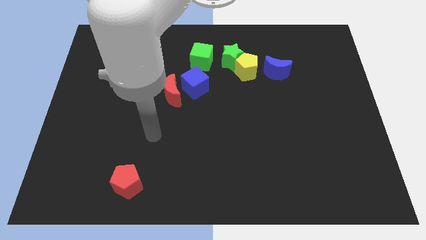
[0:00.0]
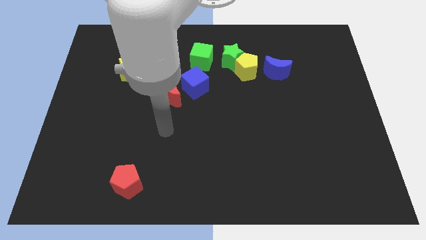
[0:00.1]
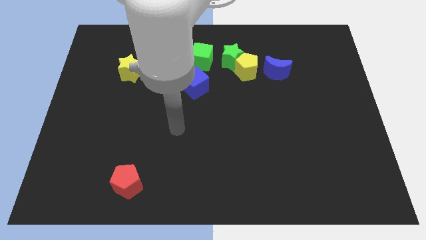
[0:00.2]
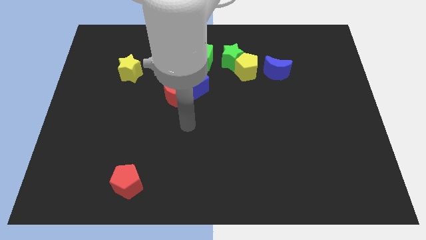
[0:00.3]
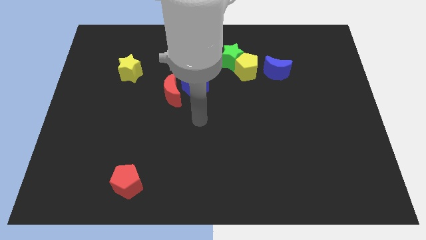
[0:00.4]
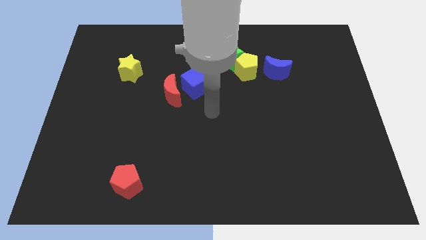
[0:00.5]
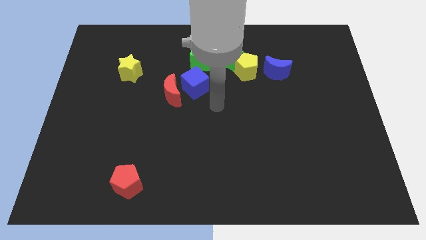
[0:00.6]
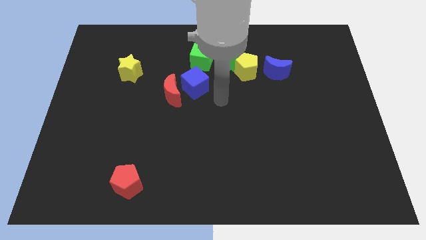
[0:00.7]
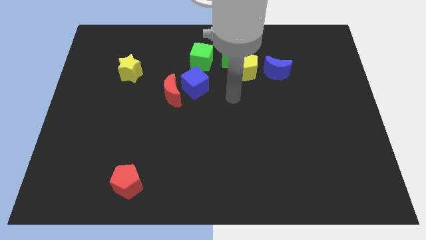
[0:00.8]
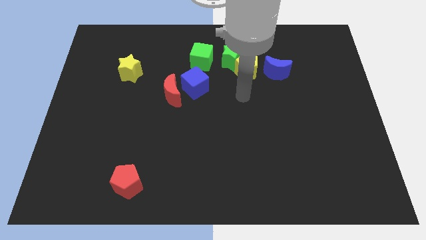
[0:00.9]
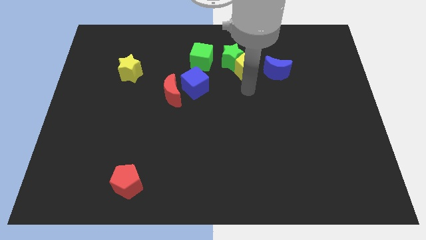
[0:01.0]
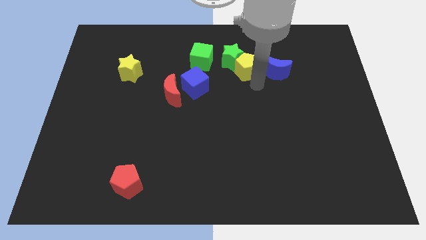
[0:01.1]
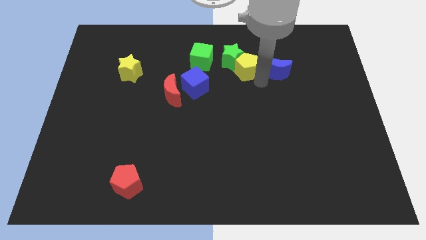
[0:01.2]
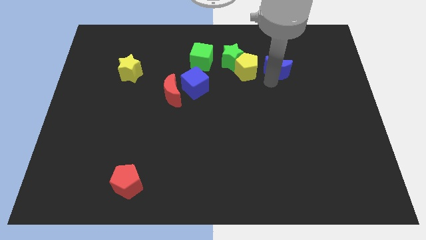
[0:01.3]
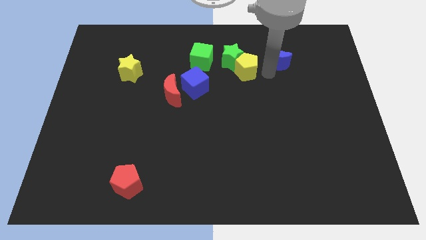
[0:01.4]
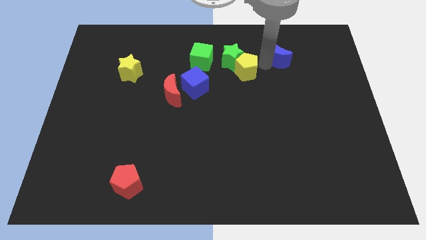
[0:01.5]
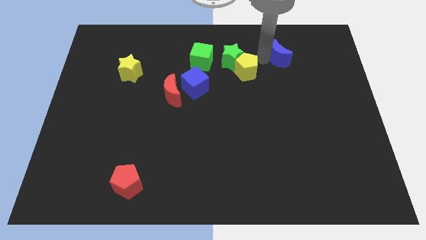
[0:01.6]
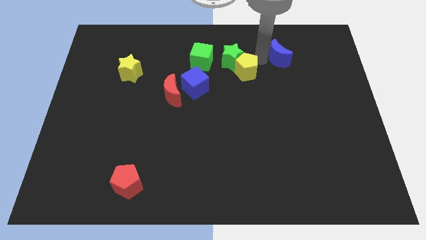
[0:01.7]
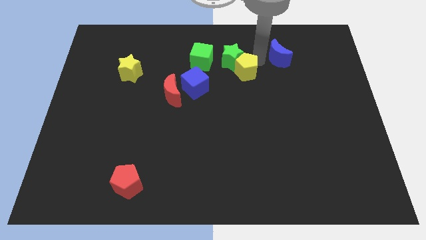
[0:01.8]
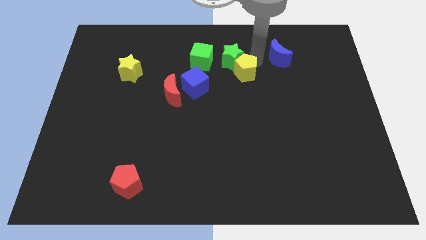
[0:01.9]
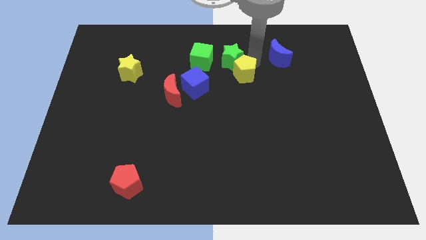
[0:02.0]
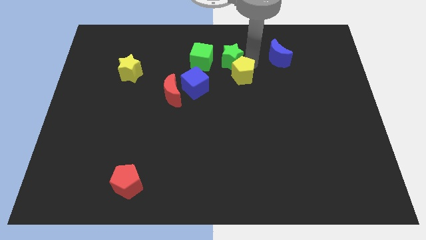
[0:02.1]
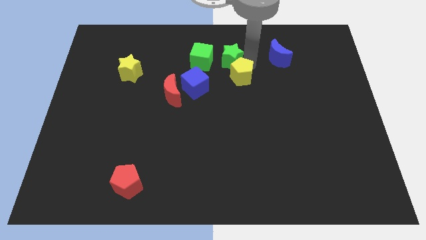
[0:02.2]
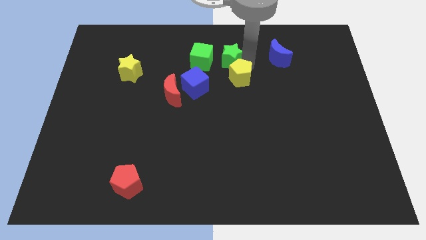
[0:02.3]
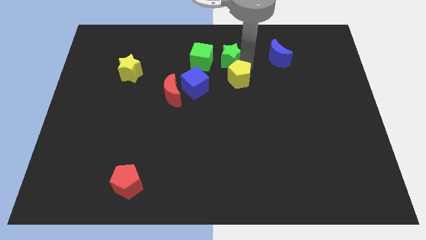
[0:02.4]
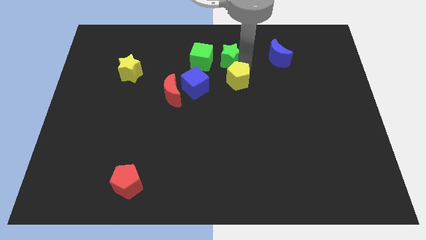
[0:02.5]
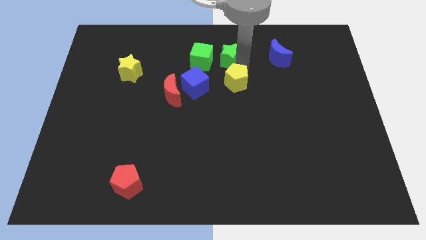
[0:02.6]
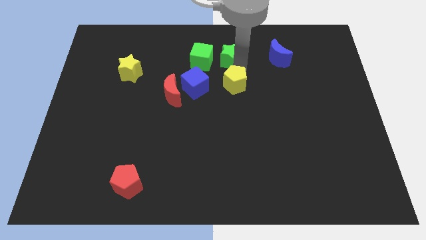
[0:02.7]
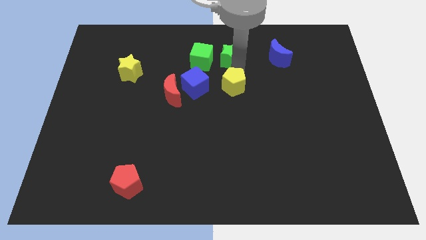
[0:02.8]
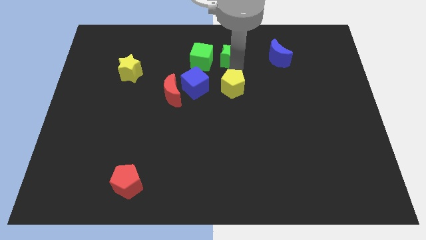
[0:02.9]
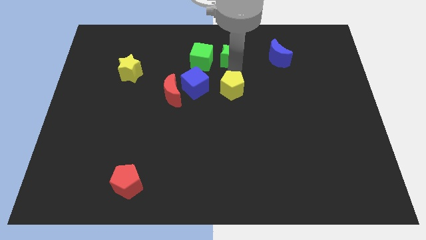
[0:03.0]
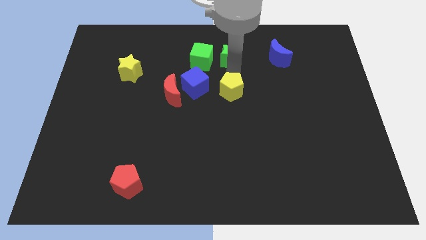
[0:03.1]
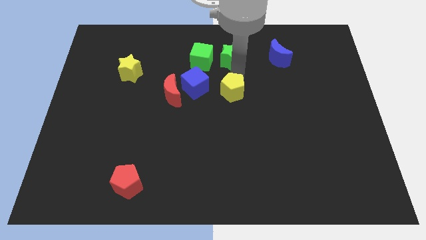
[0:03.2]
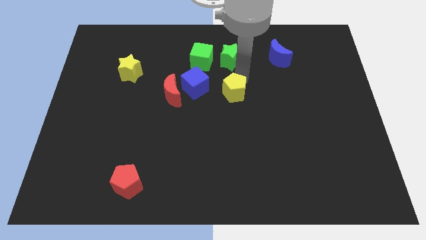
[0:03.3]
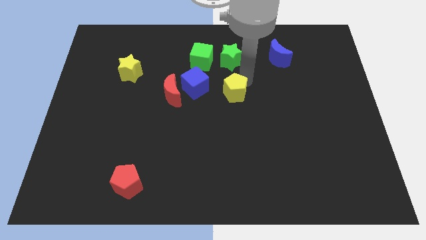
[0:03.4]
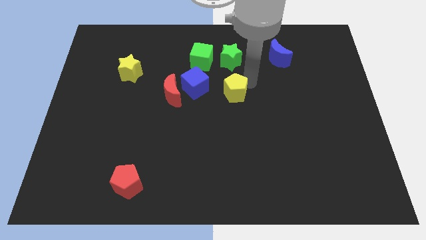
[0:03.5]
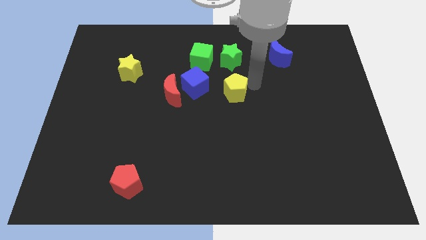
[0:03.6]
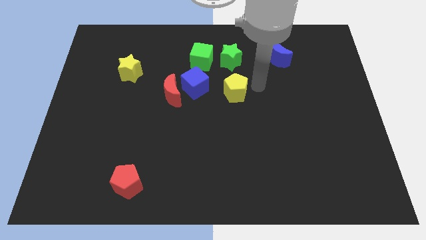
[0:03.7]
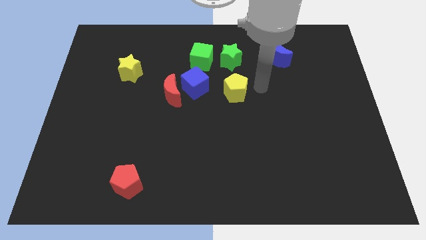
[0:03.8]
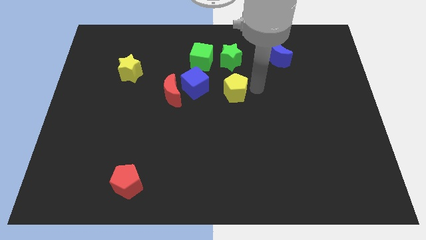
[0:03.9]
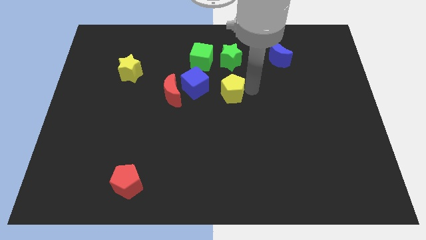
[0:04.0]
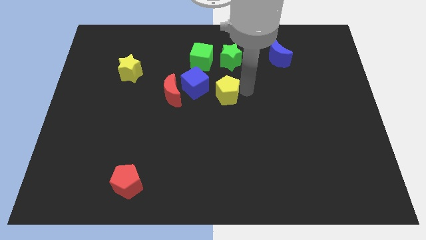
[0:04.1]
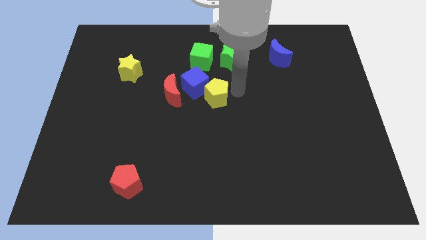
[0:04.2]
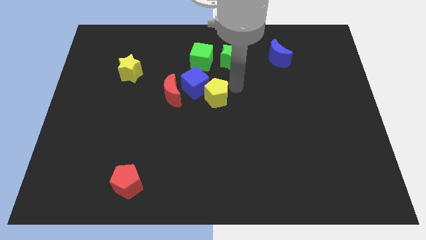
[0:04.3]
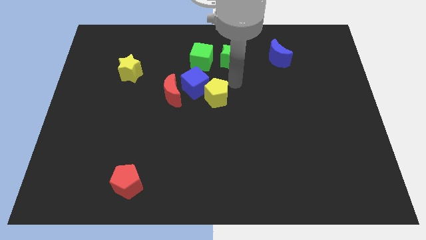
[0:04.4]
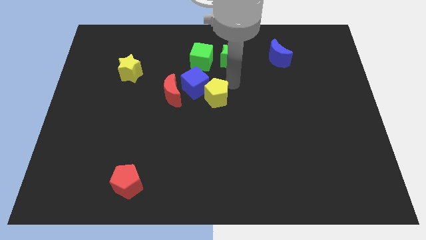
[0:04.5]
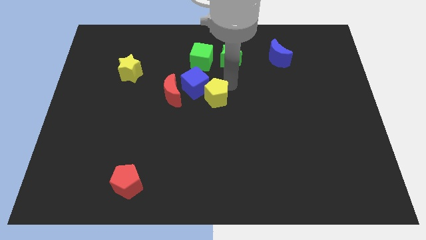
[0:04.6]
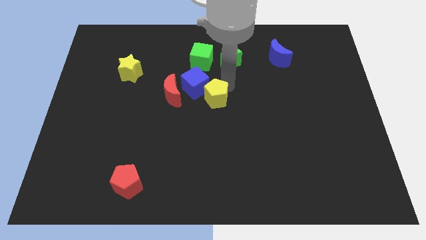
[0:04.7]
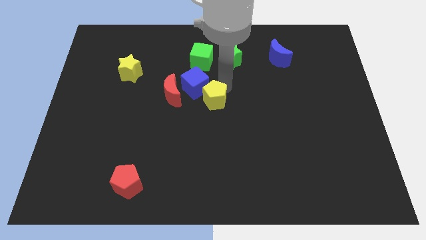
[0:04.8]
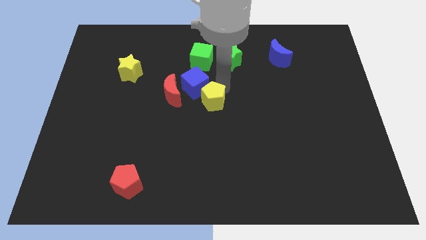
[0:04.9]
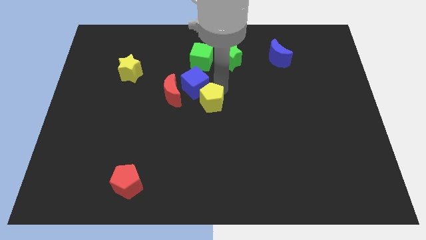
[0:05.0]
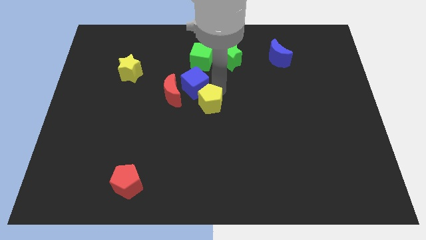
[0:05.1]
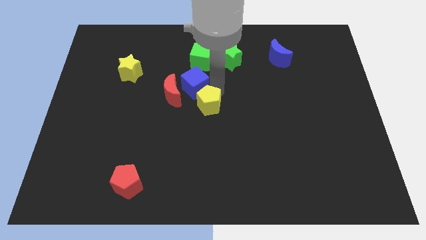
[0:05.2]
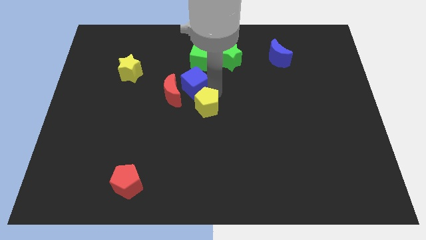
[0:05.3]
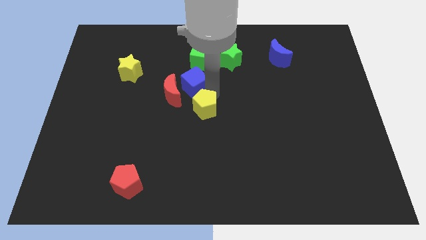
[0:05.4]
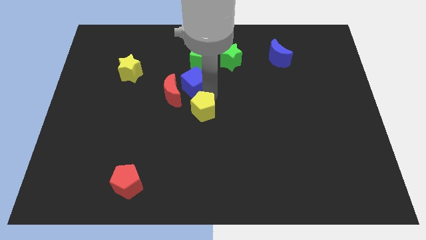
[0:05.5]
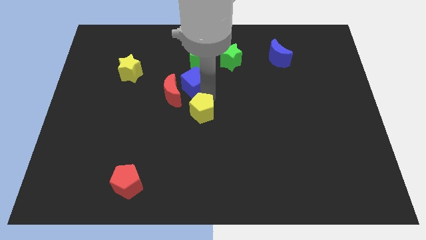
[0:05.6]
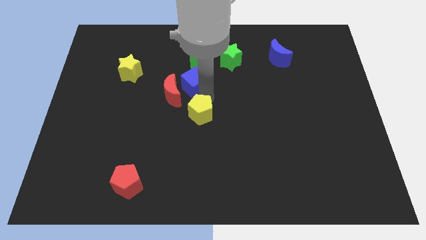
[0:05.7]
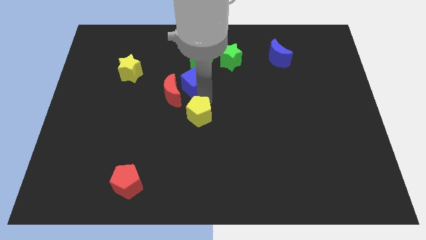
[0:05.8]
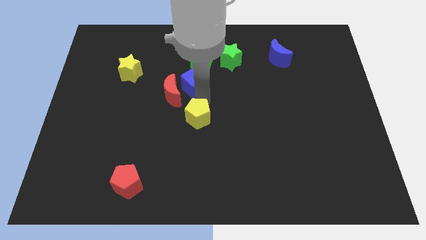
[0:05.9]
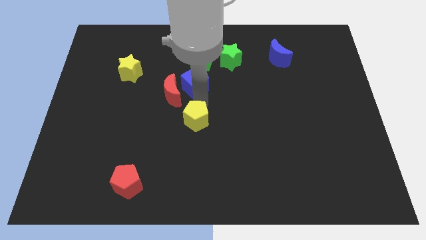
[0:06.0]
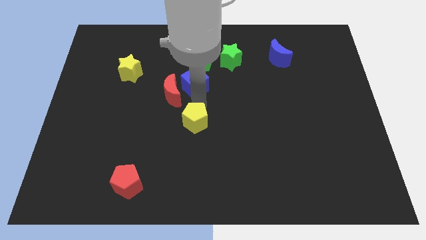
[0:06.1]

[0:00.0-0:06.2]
slide the yellow pentagon downwards and to the left

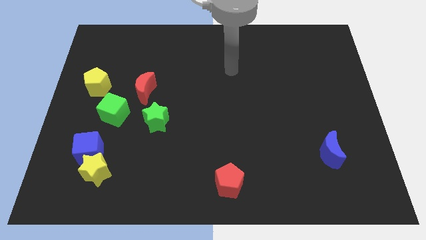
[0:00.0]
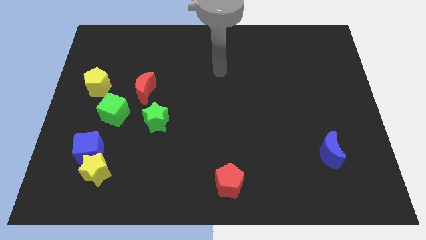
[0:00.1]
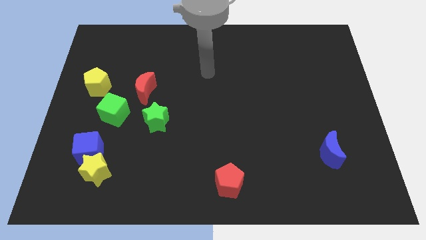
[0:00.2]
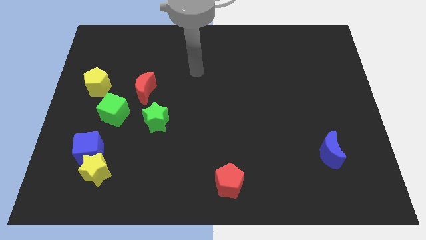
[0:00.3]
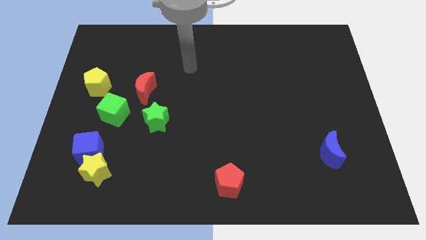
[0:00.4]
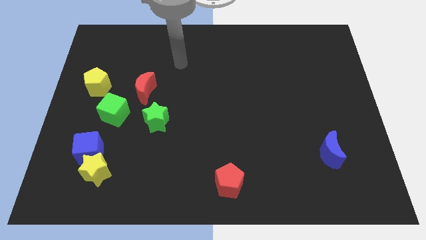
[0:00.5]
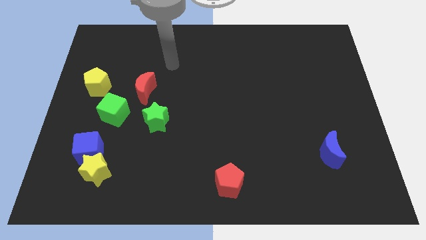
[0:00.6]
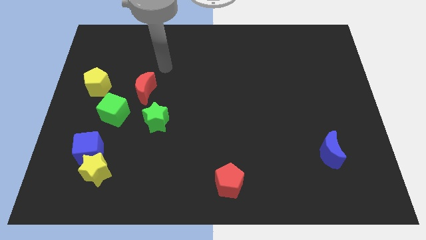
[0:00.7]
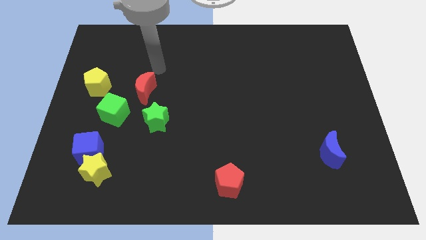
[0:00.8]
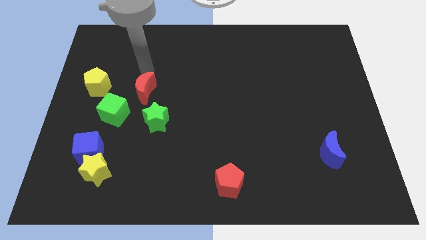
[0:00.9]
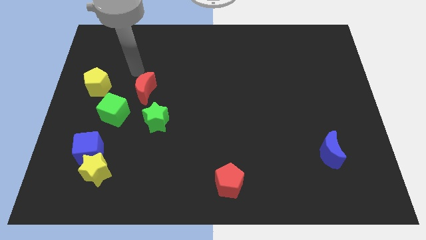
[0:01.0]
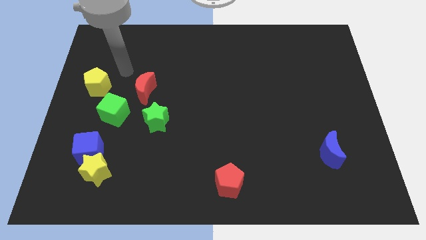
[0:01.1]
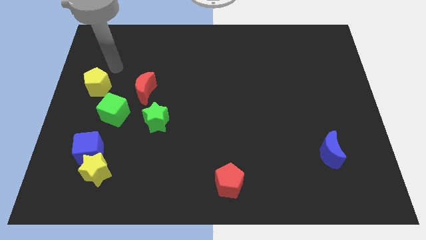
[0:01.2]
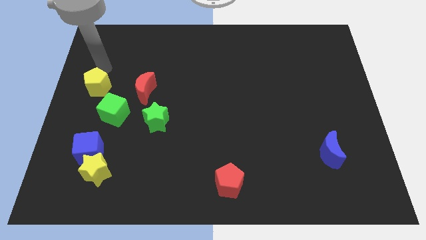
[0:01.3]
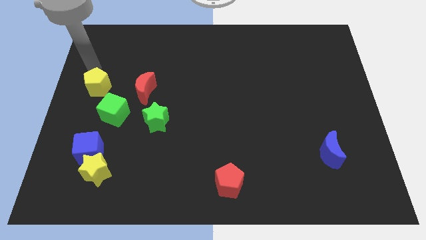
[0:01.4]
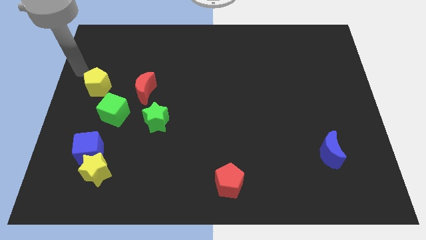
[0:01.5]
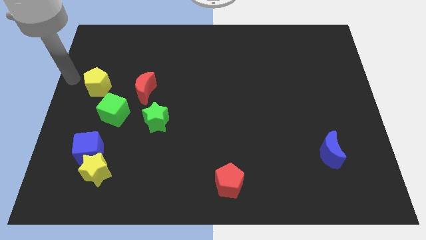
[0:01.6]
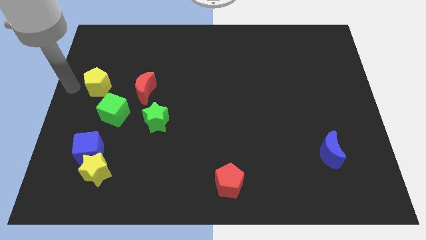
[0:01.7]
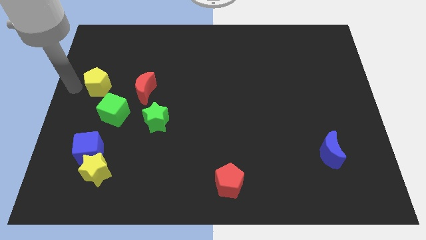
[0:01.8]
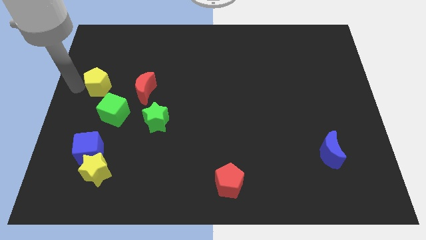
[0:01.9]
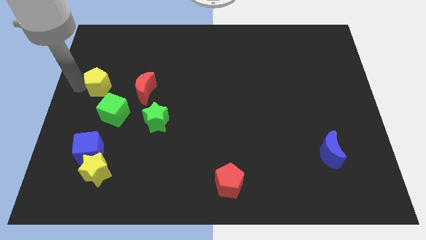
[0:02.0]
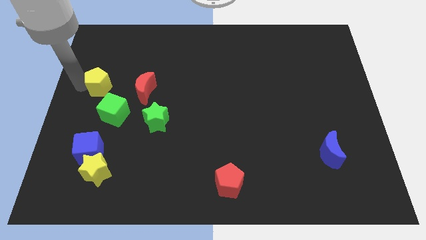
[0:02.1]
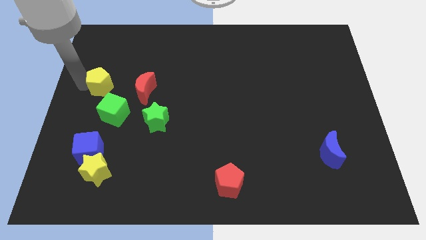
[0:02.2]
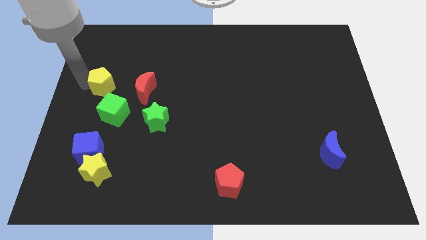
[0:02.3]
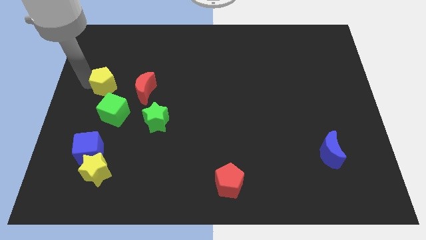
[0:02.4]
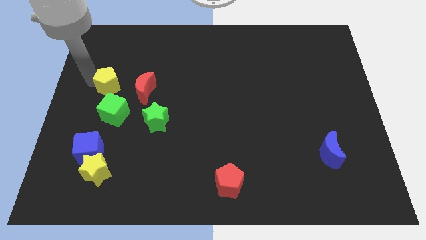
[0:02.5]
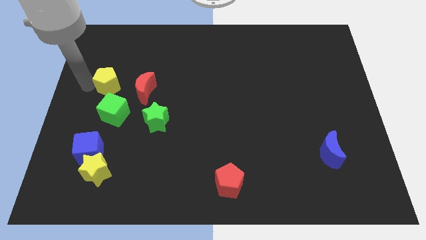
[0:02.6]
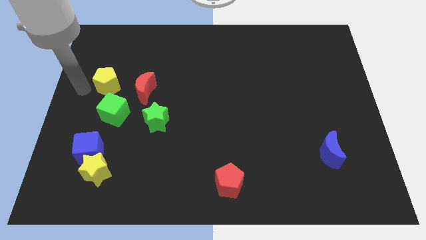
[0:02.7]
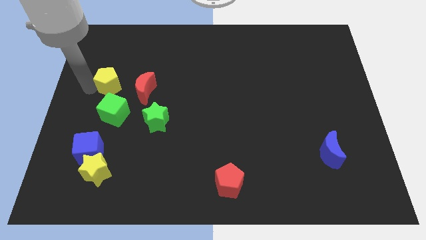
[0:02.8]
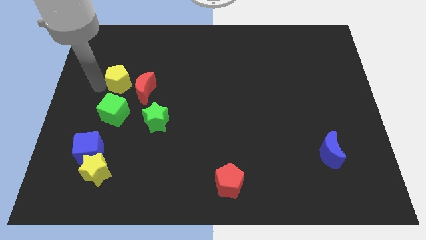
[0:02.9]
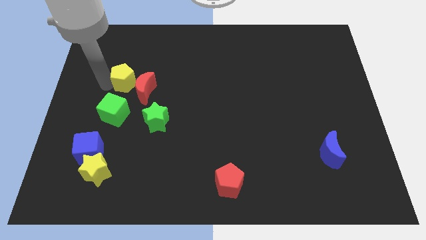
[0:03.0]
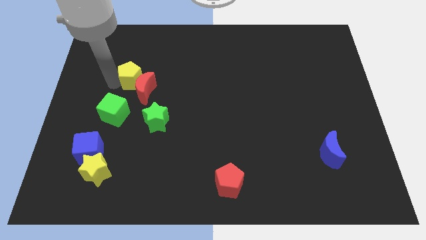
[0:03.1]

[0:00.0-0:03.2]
slide the yellow pentagon slightly to the right
